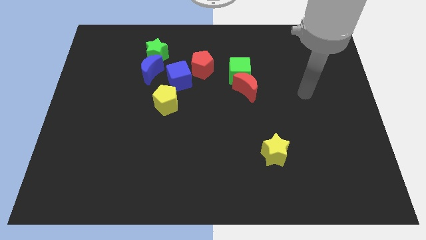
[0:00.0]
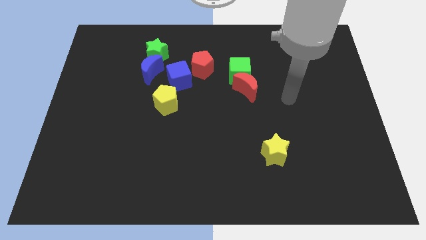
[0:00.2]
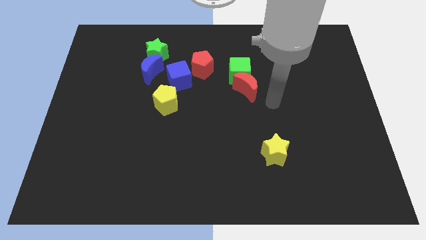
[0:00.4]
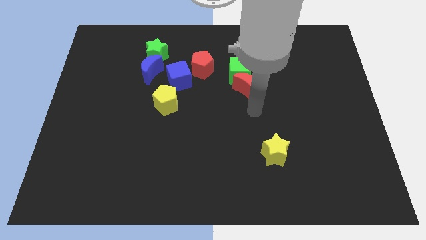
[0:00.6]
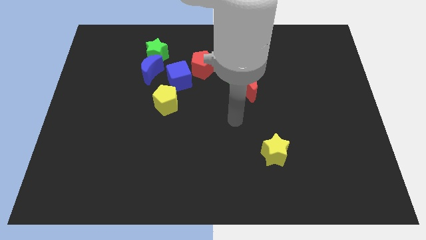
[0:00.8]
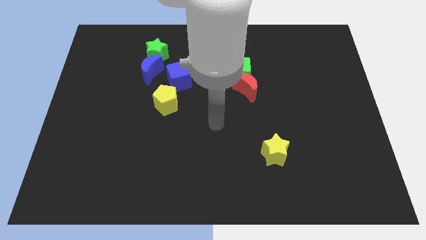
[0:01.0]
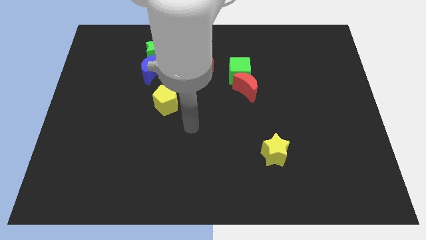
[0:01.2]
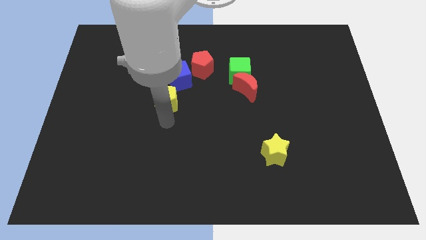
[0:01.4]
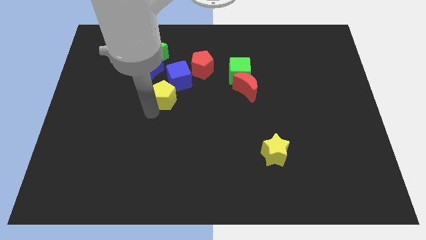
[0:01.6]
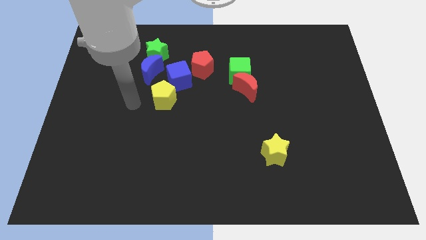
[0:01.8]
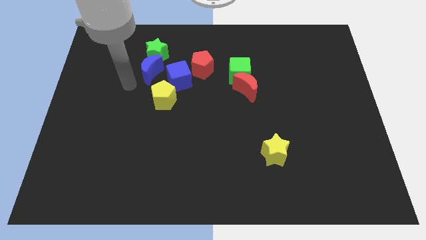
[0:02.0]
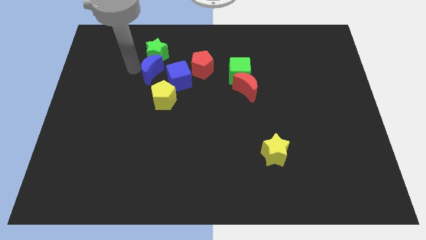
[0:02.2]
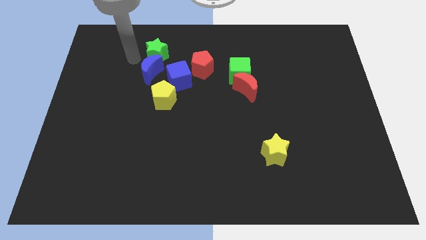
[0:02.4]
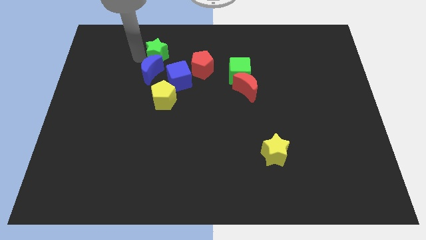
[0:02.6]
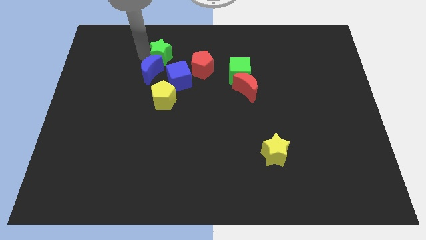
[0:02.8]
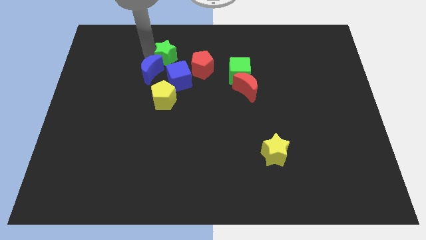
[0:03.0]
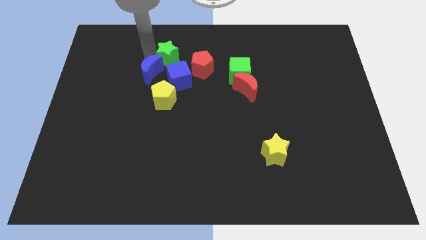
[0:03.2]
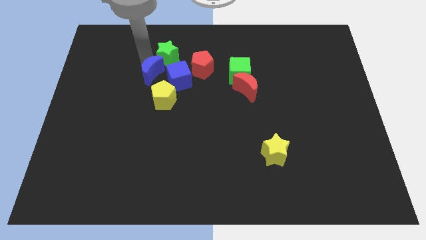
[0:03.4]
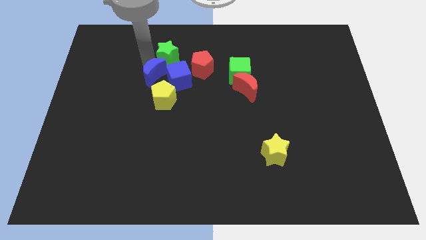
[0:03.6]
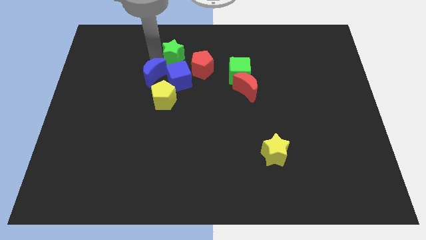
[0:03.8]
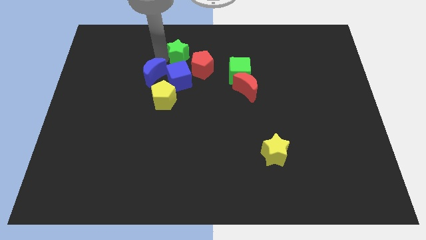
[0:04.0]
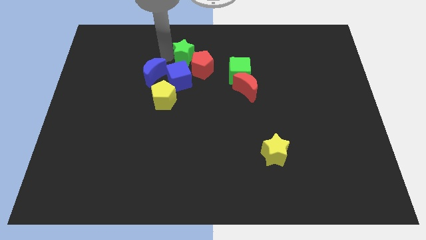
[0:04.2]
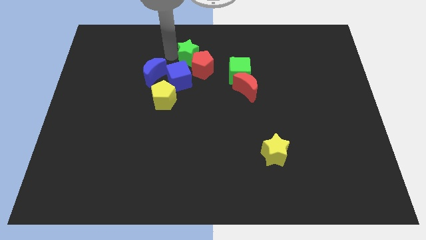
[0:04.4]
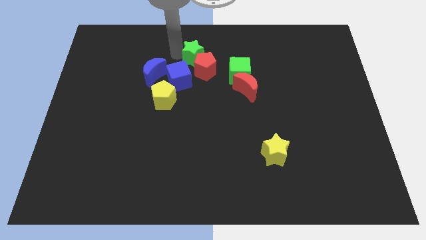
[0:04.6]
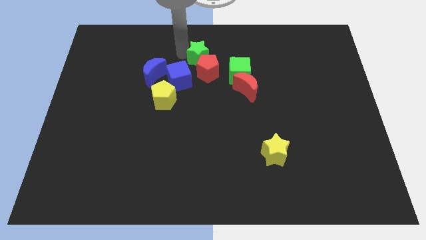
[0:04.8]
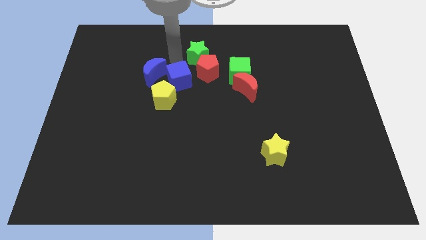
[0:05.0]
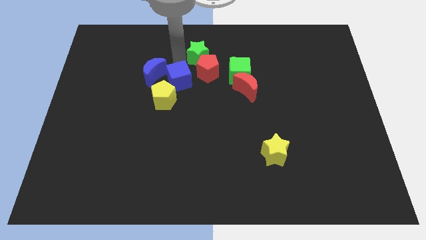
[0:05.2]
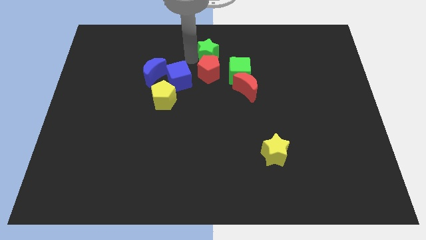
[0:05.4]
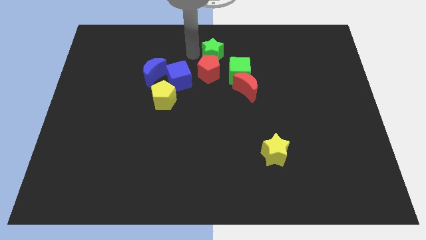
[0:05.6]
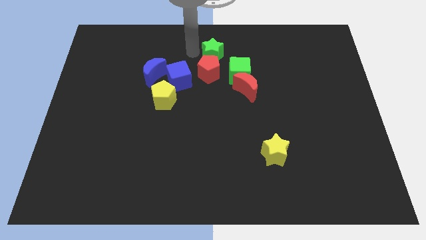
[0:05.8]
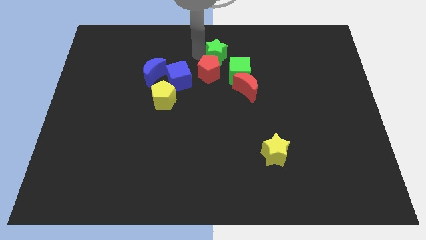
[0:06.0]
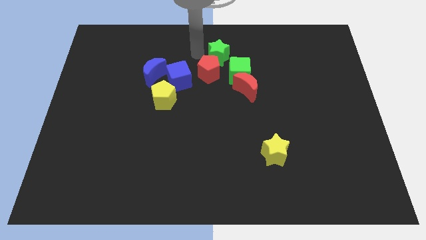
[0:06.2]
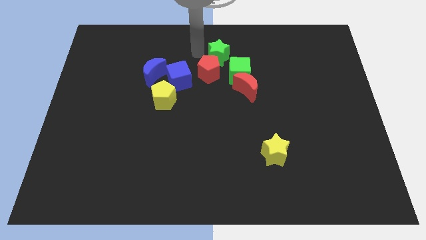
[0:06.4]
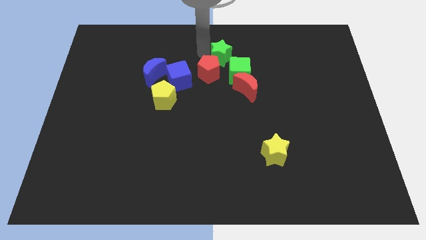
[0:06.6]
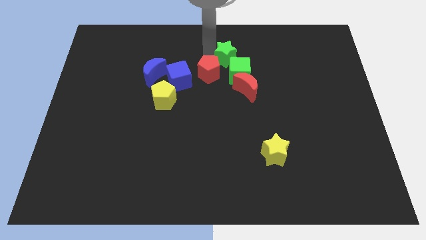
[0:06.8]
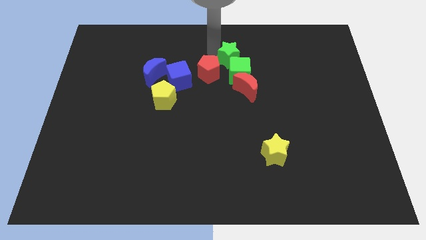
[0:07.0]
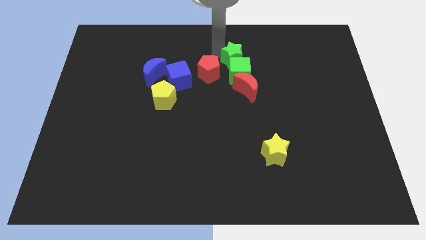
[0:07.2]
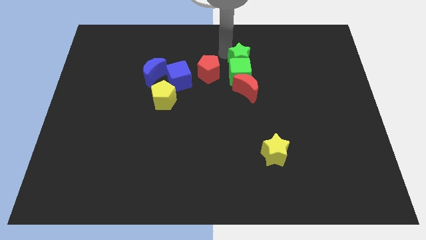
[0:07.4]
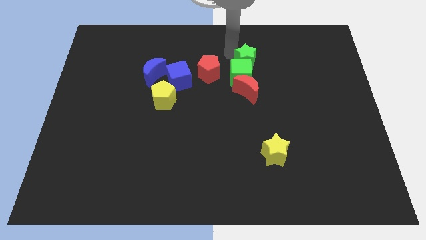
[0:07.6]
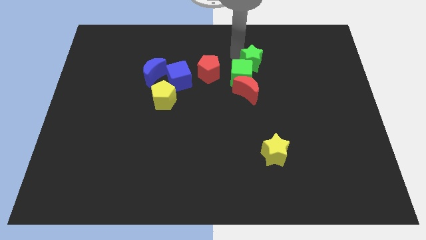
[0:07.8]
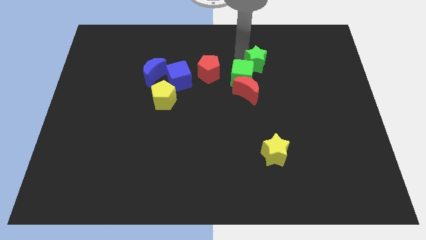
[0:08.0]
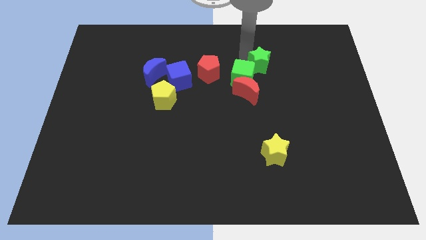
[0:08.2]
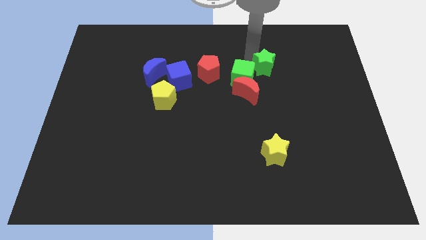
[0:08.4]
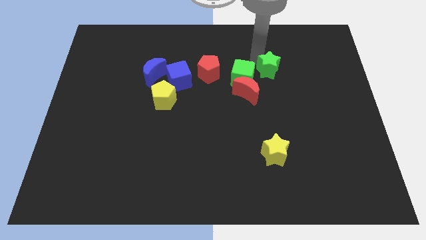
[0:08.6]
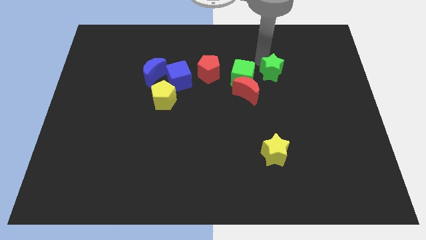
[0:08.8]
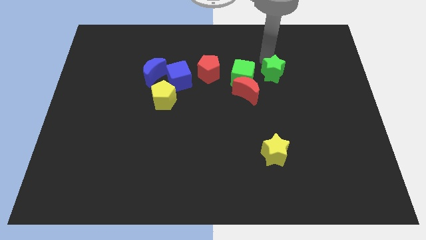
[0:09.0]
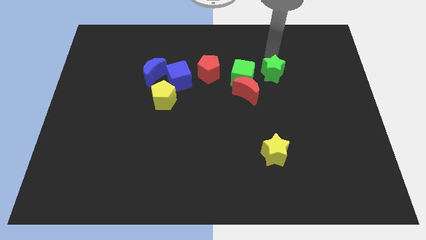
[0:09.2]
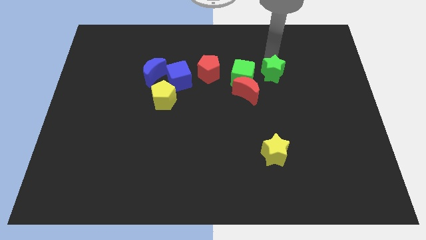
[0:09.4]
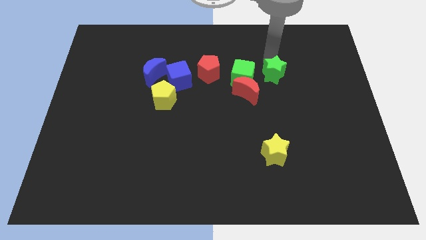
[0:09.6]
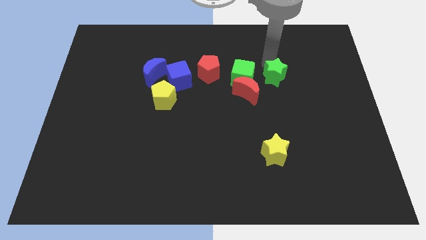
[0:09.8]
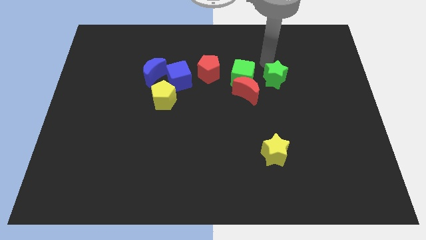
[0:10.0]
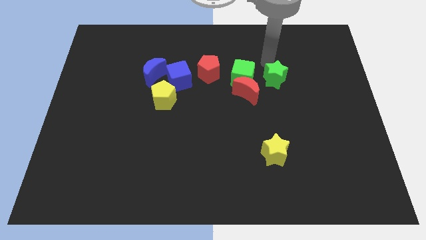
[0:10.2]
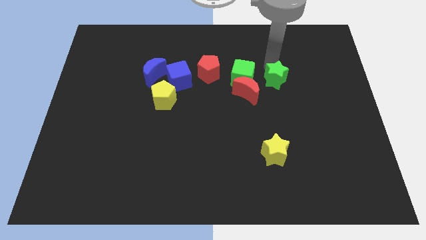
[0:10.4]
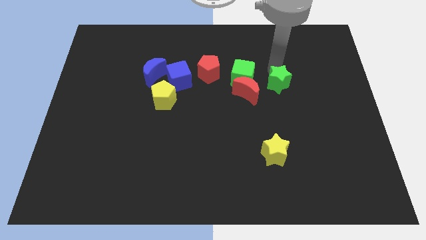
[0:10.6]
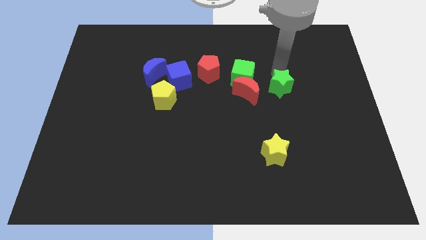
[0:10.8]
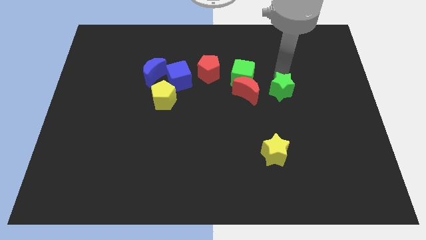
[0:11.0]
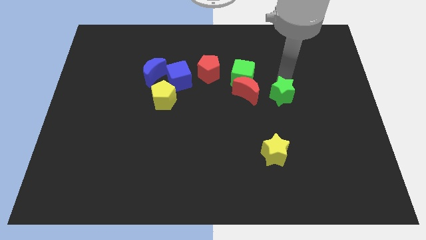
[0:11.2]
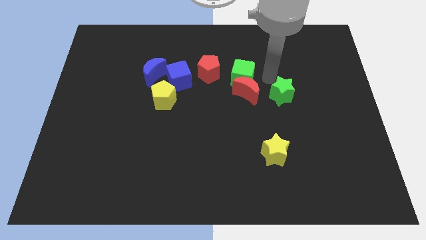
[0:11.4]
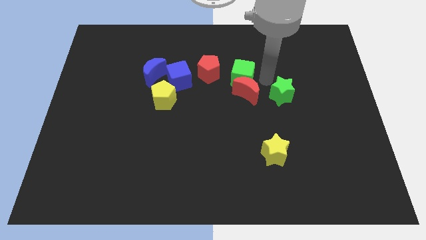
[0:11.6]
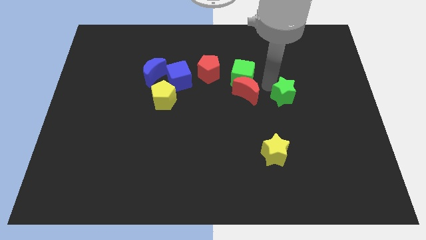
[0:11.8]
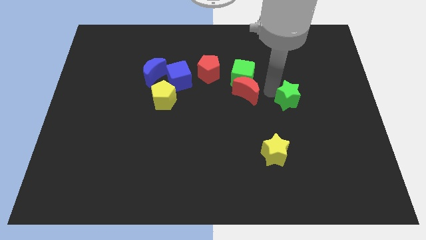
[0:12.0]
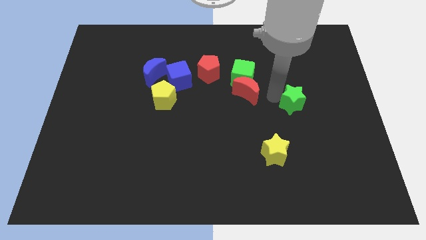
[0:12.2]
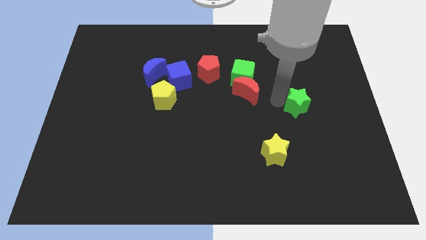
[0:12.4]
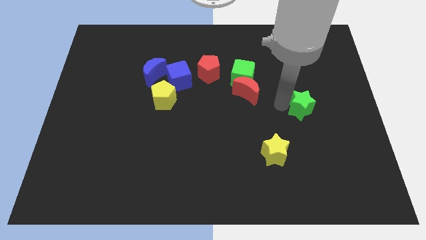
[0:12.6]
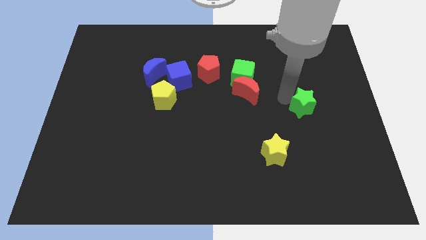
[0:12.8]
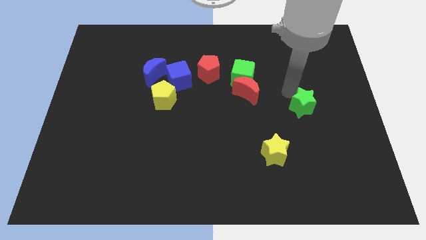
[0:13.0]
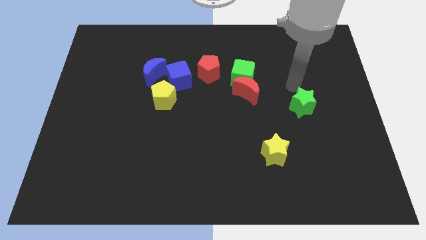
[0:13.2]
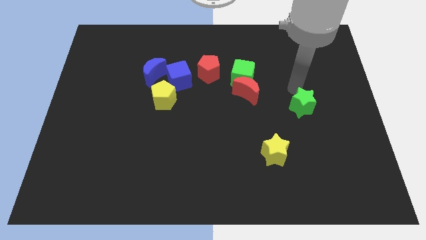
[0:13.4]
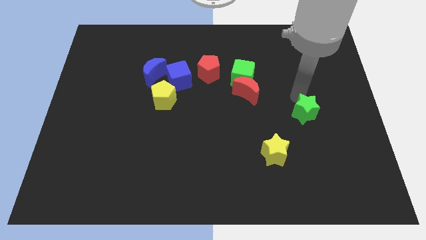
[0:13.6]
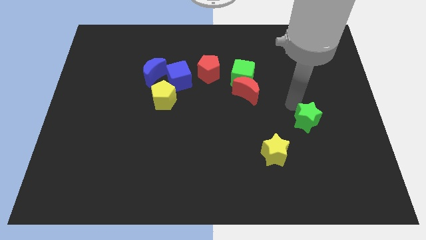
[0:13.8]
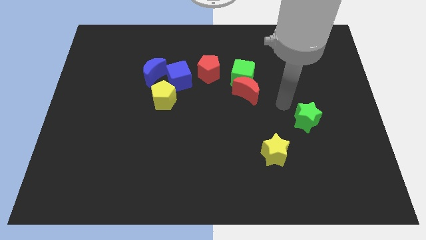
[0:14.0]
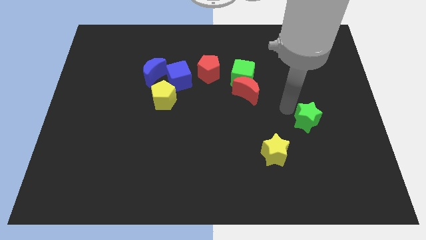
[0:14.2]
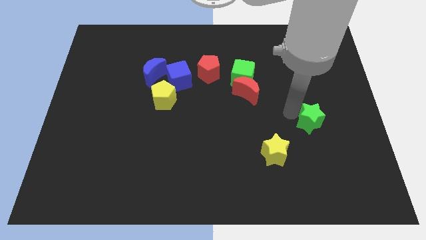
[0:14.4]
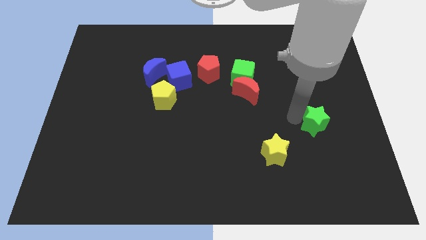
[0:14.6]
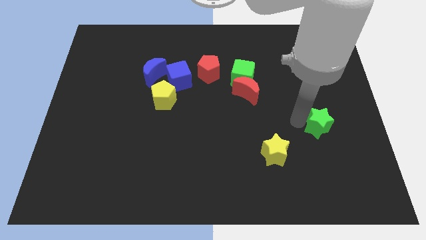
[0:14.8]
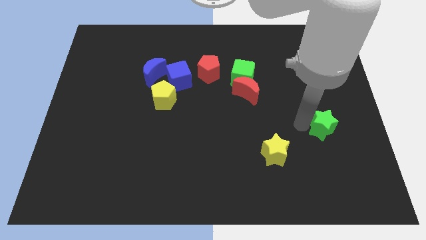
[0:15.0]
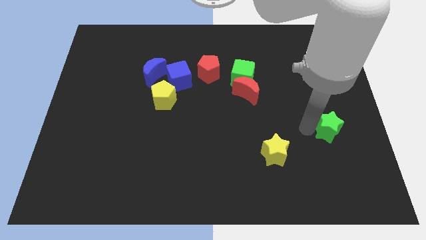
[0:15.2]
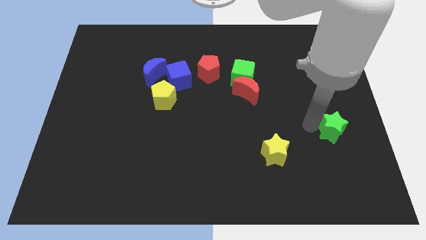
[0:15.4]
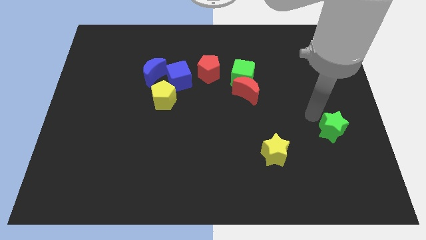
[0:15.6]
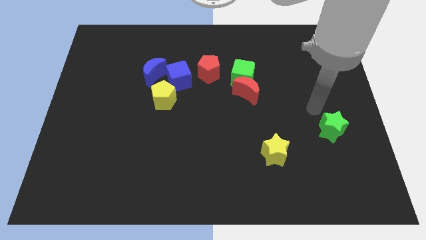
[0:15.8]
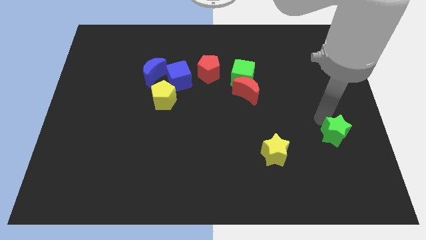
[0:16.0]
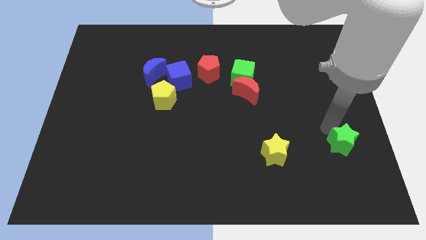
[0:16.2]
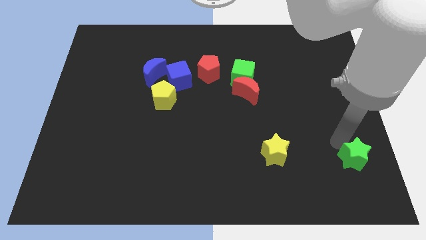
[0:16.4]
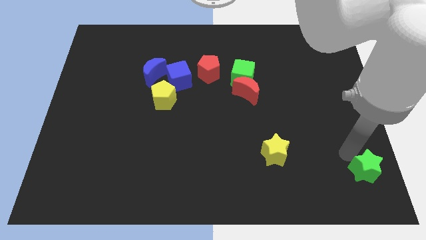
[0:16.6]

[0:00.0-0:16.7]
move the green star to the lower right corner
